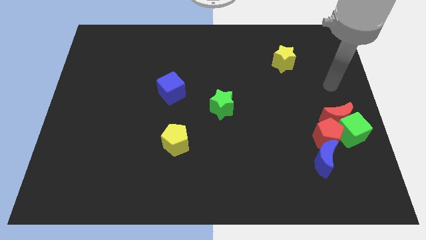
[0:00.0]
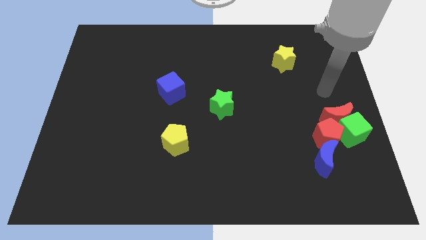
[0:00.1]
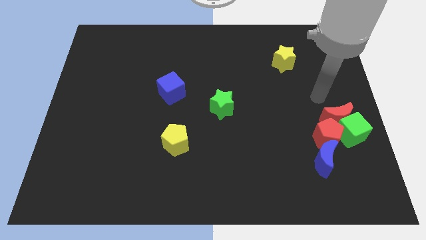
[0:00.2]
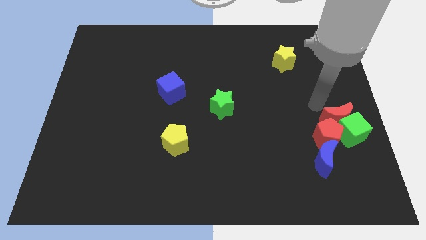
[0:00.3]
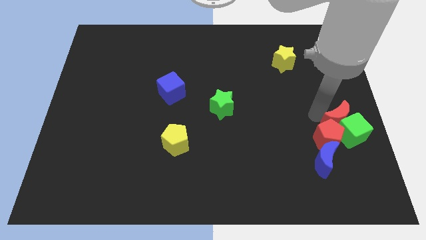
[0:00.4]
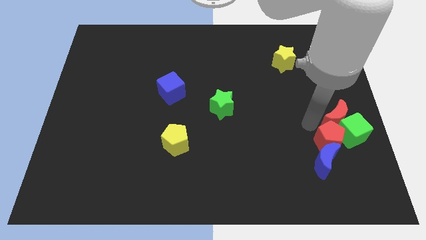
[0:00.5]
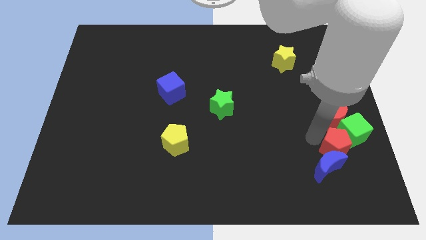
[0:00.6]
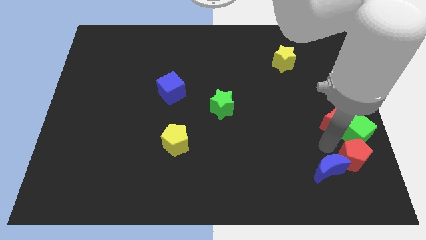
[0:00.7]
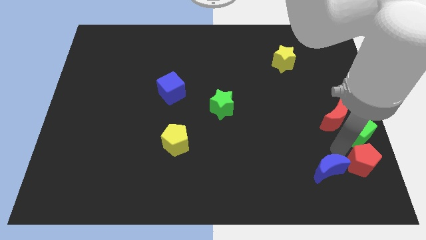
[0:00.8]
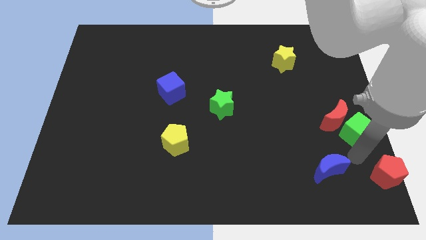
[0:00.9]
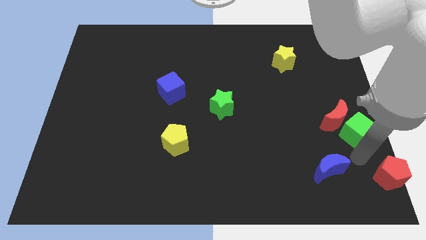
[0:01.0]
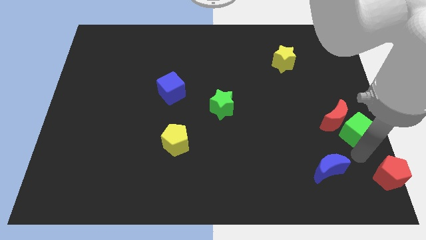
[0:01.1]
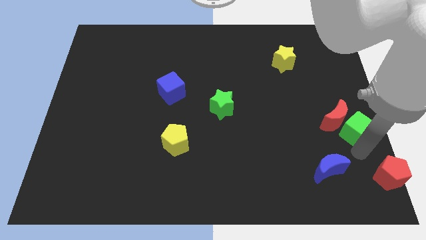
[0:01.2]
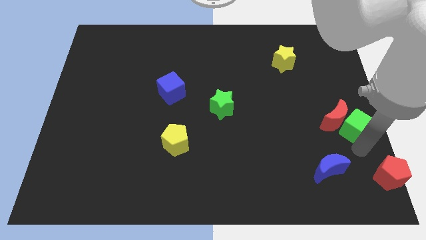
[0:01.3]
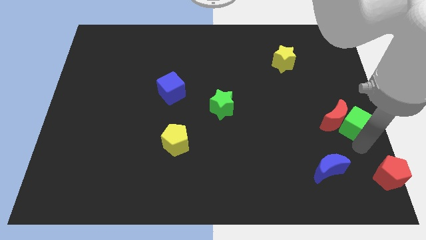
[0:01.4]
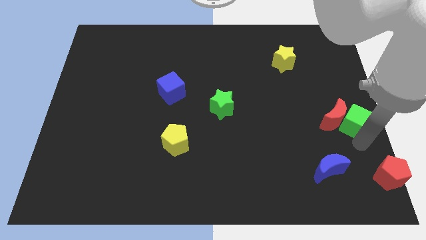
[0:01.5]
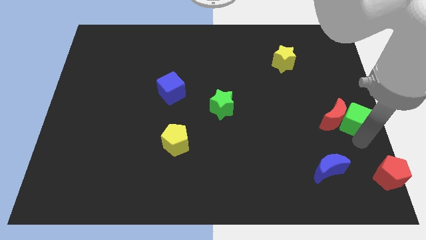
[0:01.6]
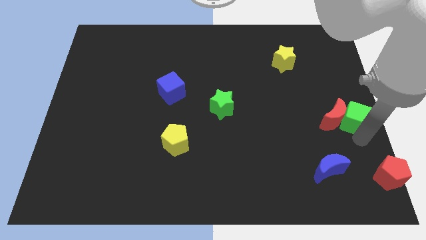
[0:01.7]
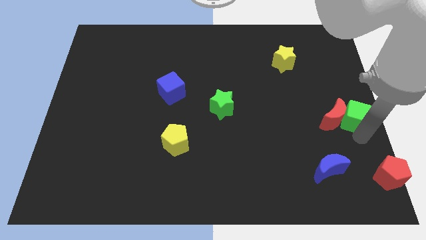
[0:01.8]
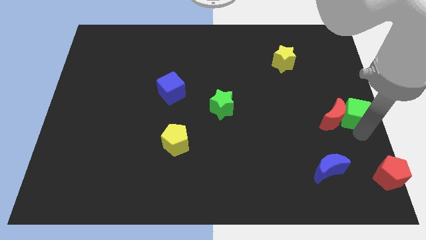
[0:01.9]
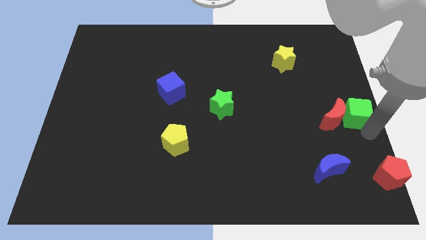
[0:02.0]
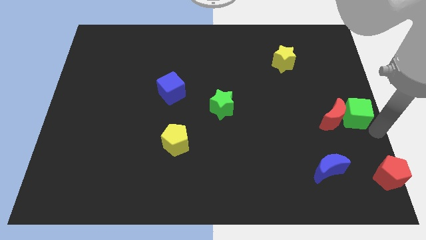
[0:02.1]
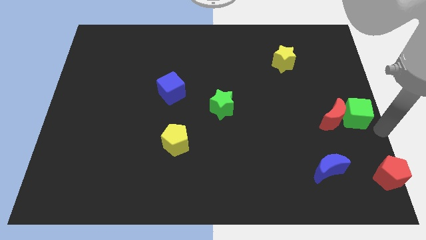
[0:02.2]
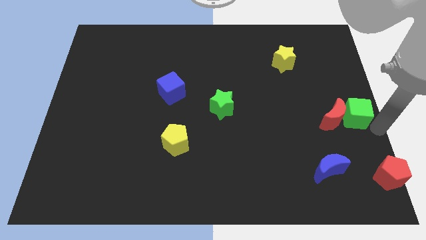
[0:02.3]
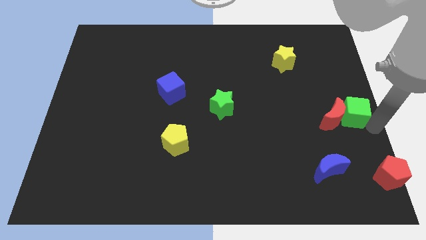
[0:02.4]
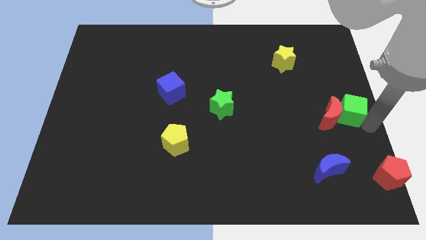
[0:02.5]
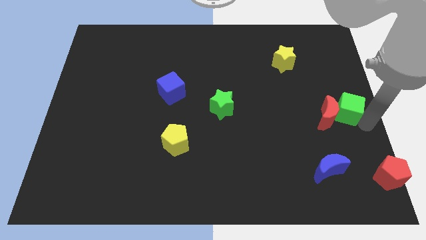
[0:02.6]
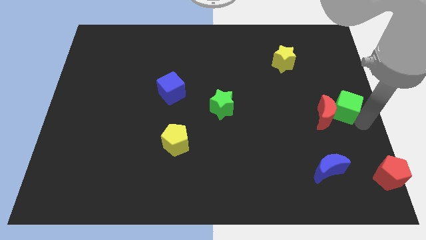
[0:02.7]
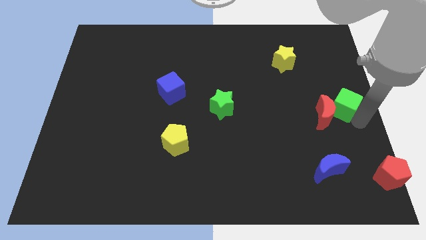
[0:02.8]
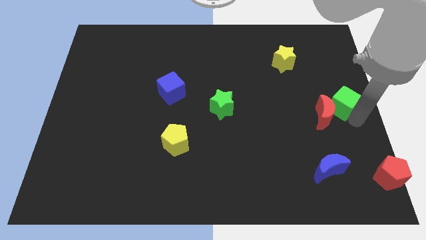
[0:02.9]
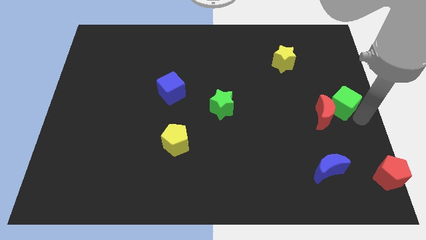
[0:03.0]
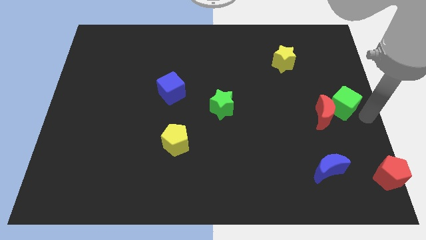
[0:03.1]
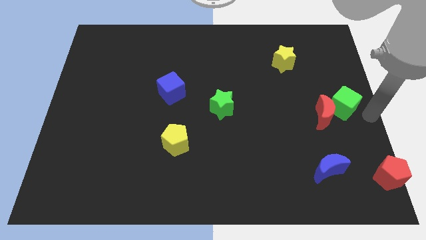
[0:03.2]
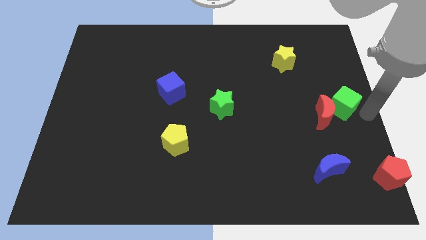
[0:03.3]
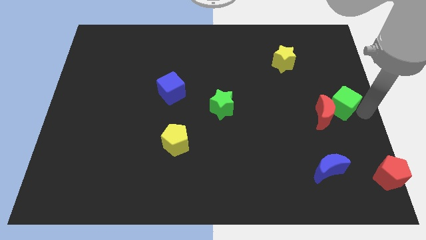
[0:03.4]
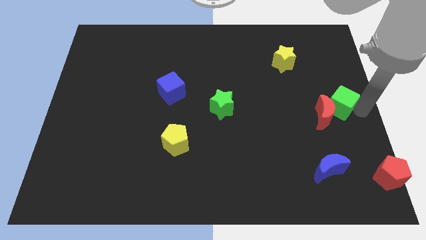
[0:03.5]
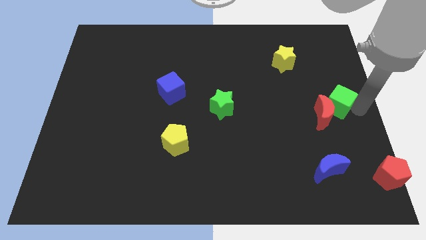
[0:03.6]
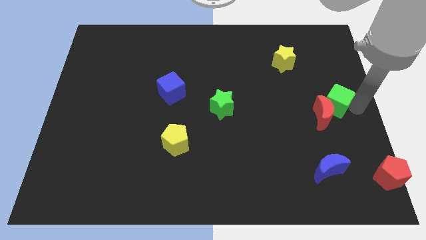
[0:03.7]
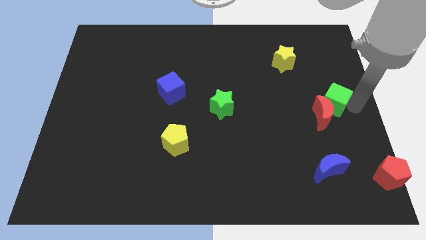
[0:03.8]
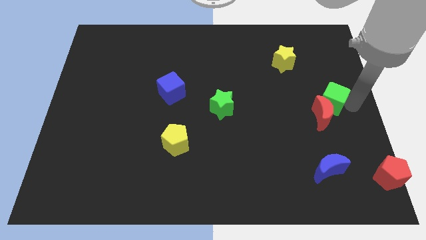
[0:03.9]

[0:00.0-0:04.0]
slightly slide the green cube up and to the left

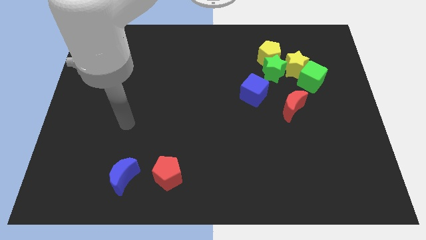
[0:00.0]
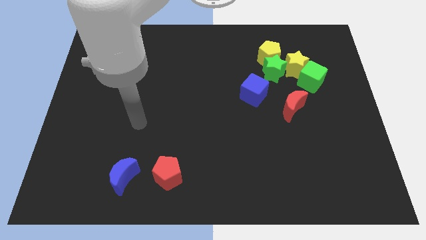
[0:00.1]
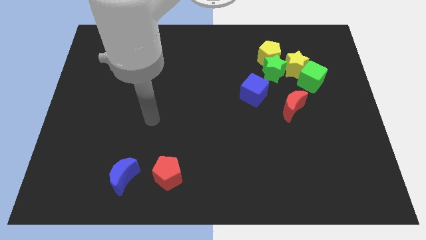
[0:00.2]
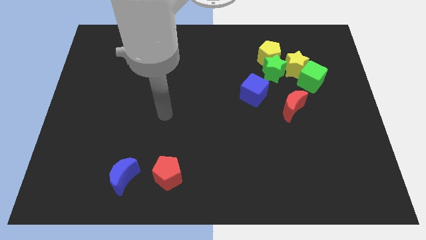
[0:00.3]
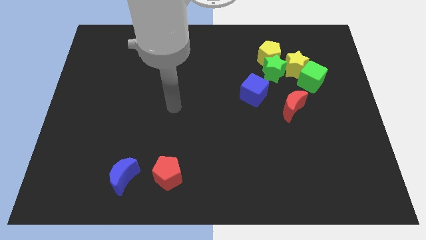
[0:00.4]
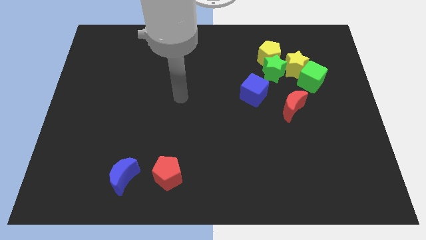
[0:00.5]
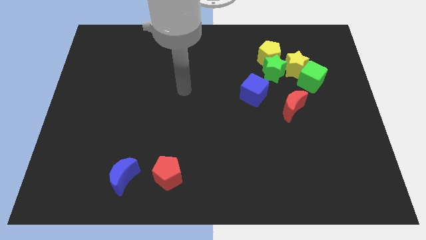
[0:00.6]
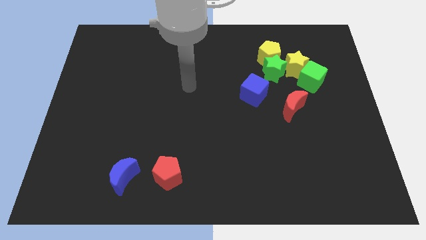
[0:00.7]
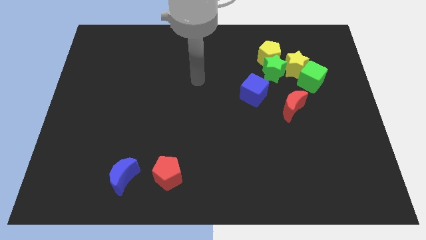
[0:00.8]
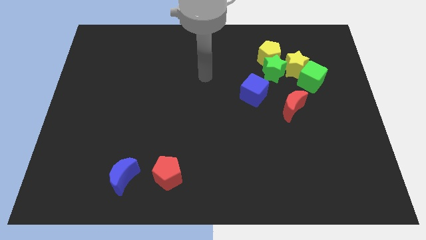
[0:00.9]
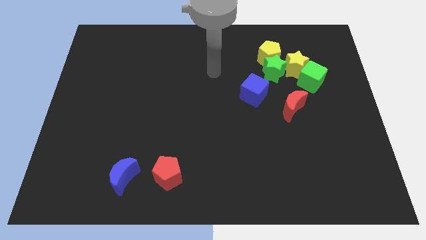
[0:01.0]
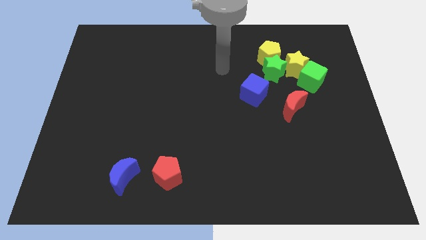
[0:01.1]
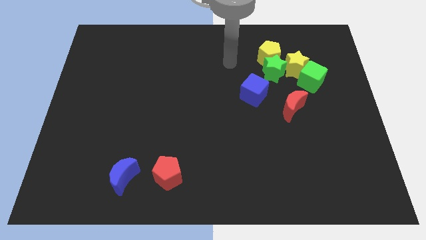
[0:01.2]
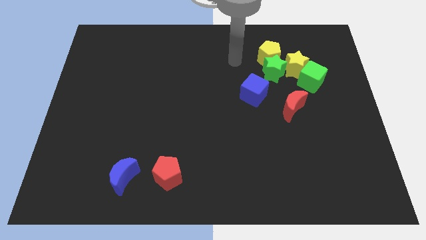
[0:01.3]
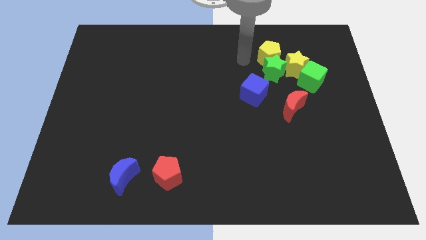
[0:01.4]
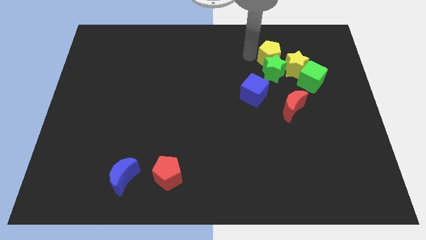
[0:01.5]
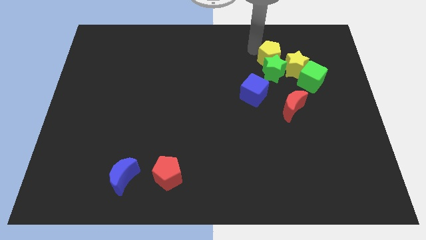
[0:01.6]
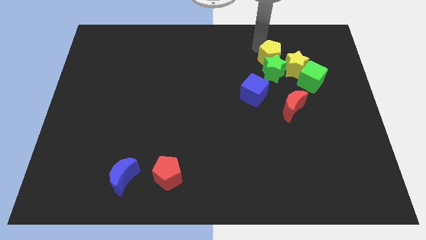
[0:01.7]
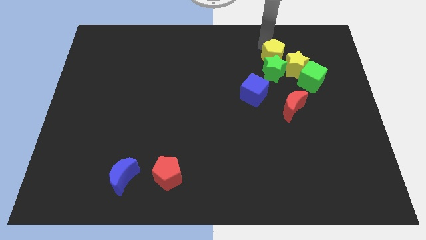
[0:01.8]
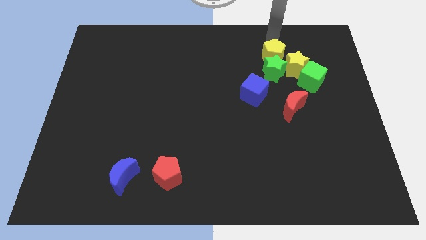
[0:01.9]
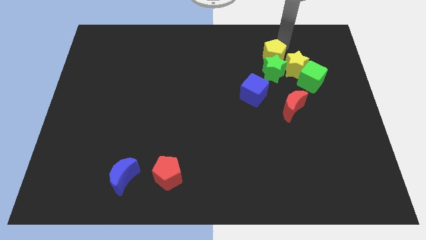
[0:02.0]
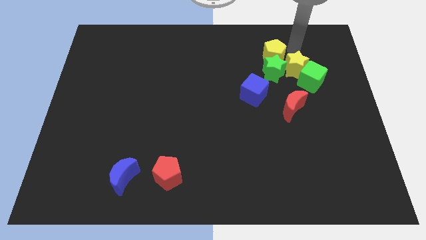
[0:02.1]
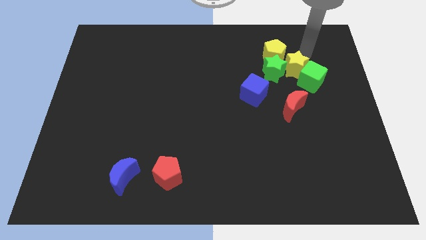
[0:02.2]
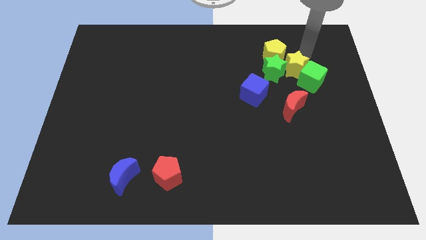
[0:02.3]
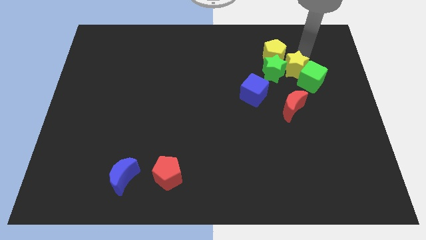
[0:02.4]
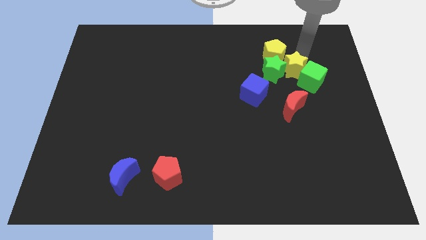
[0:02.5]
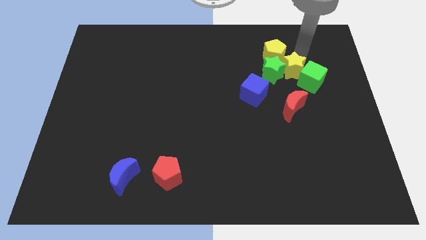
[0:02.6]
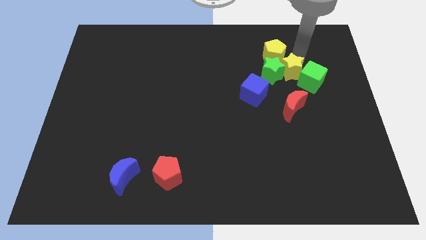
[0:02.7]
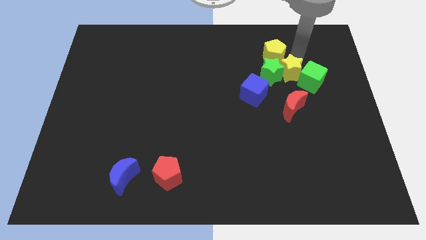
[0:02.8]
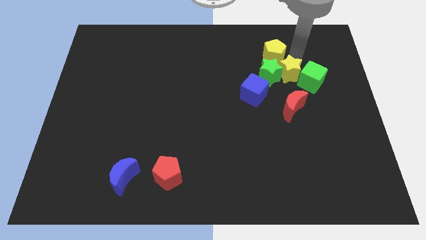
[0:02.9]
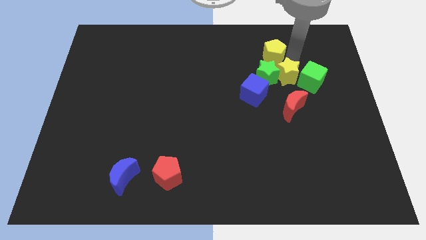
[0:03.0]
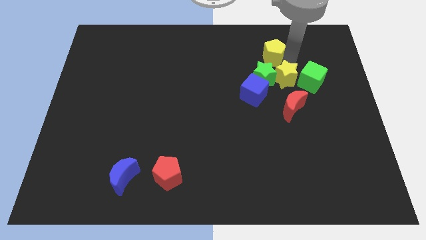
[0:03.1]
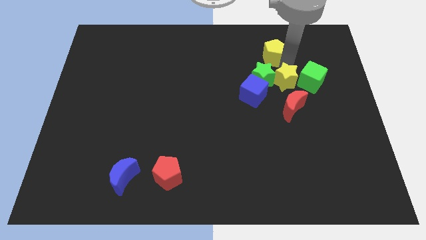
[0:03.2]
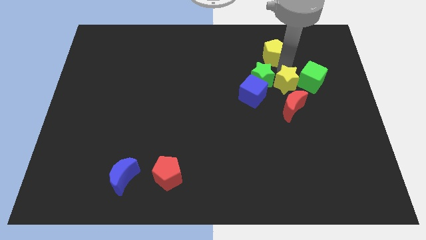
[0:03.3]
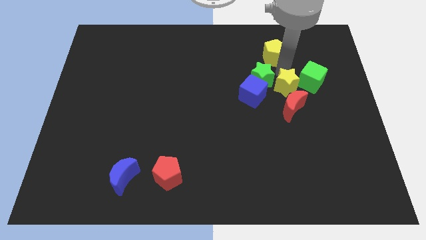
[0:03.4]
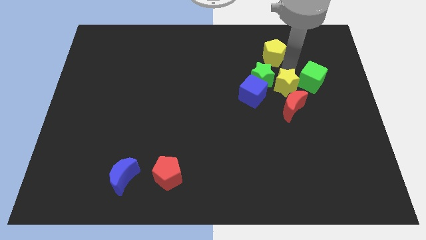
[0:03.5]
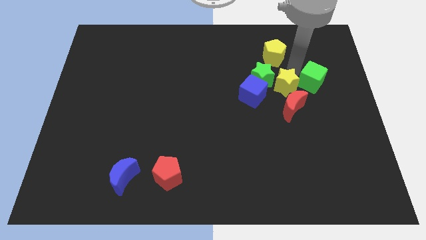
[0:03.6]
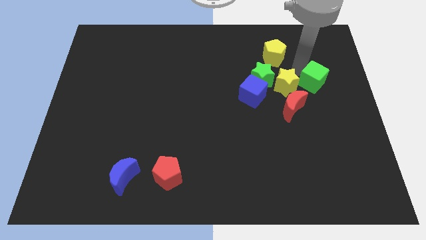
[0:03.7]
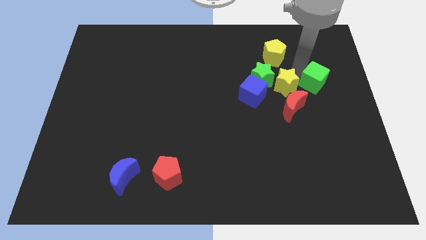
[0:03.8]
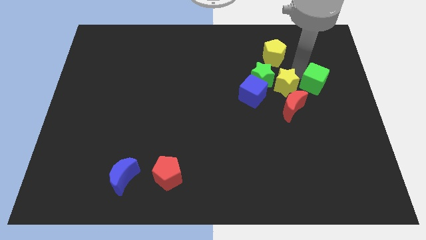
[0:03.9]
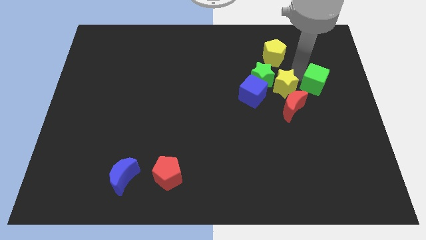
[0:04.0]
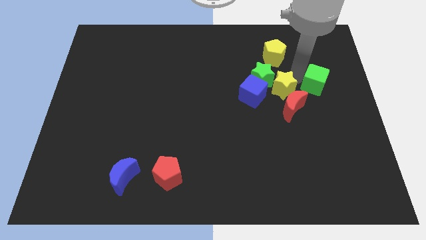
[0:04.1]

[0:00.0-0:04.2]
move the yellow star downwards and then left somewhat

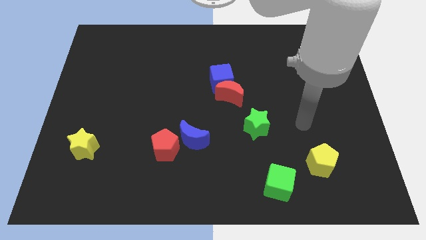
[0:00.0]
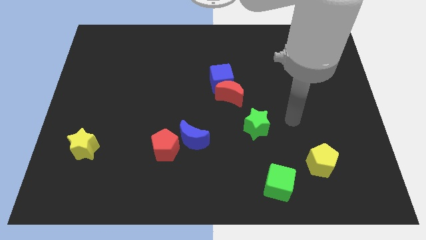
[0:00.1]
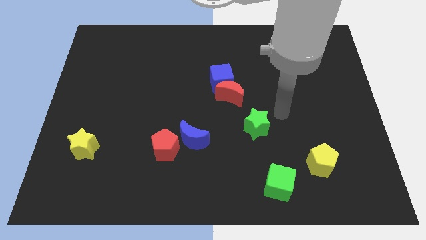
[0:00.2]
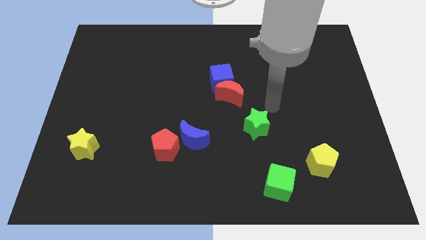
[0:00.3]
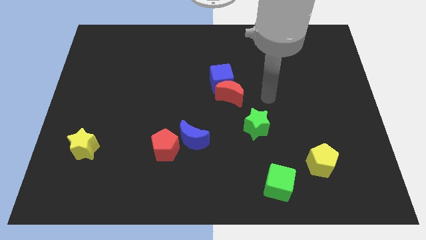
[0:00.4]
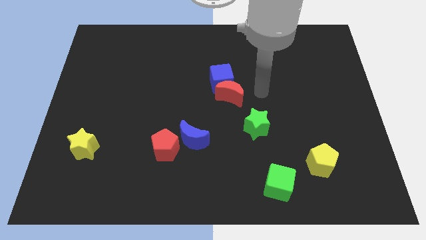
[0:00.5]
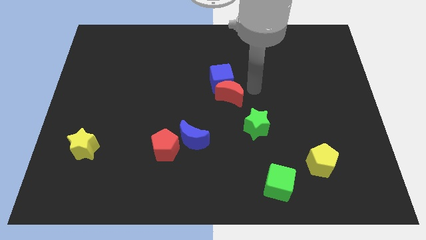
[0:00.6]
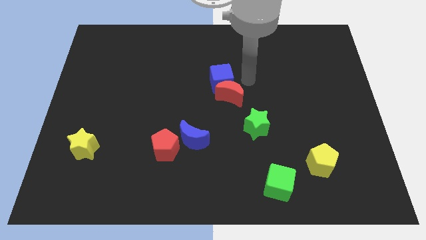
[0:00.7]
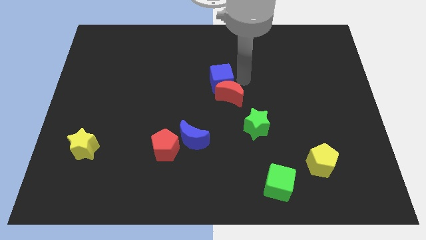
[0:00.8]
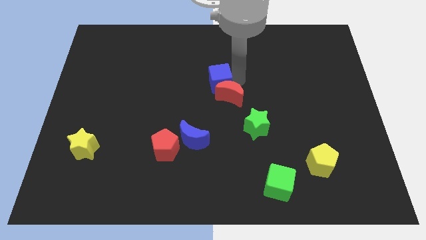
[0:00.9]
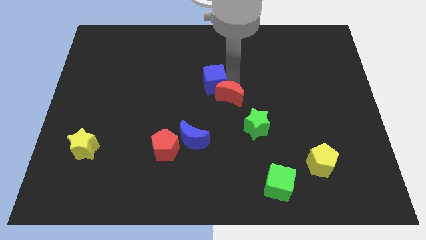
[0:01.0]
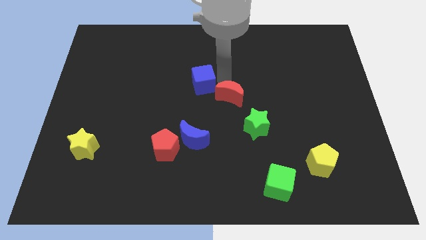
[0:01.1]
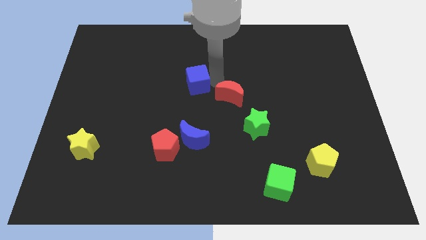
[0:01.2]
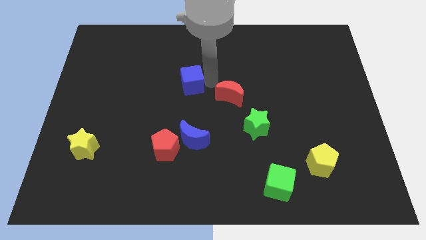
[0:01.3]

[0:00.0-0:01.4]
slightly push the blue cube to the left
